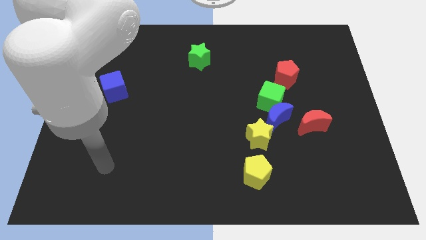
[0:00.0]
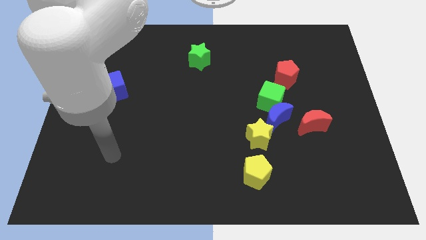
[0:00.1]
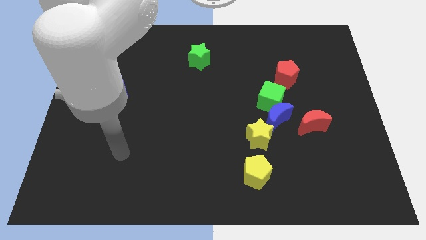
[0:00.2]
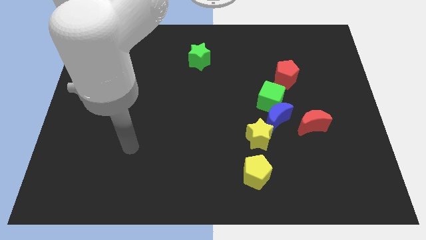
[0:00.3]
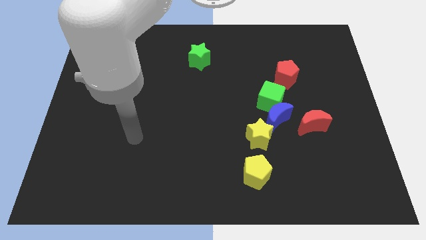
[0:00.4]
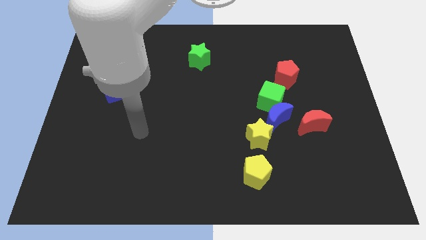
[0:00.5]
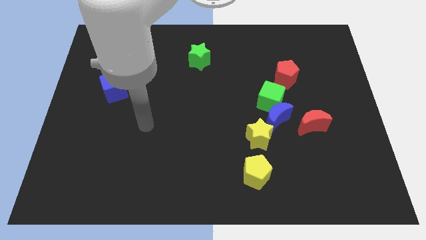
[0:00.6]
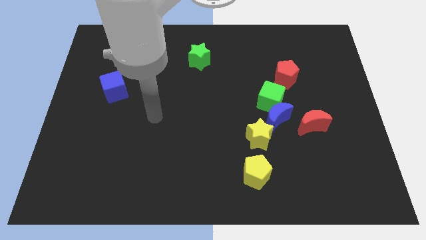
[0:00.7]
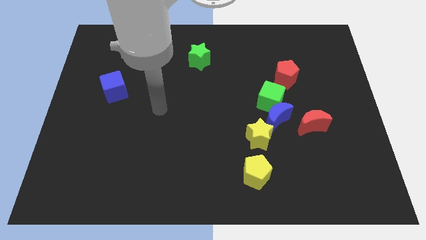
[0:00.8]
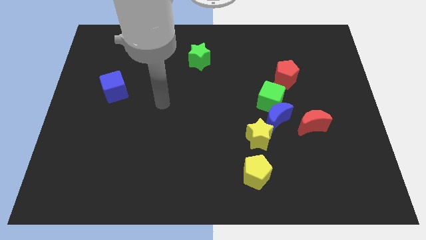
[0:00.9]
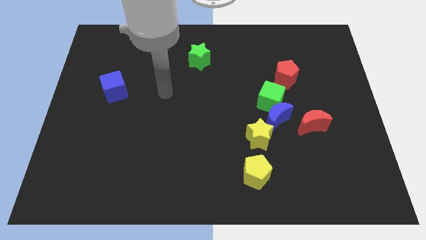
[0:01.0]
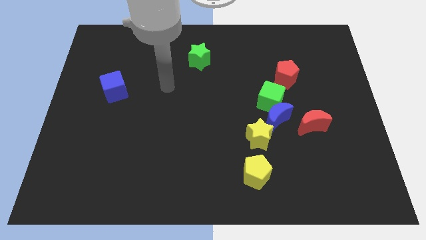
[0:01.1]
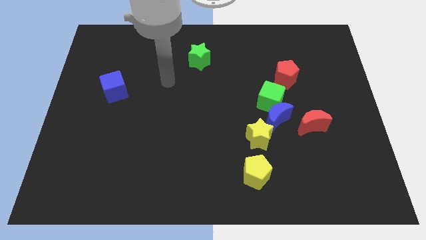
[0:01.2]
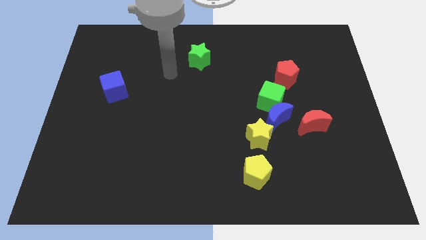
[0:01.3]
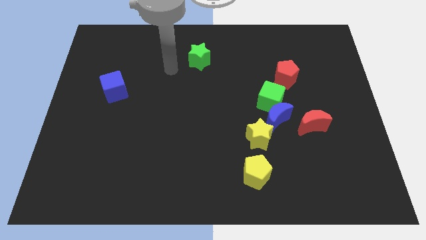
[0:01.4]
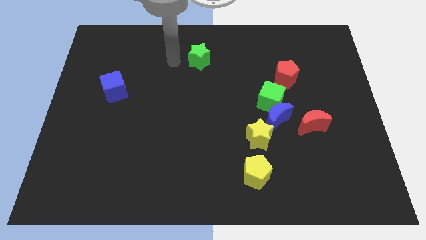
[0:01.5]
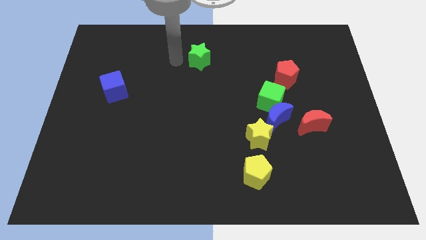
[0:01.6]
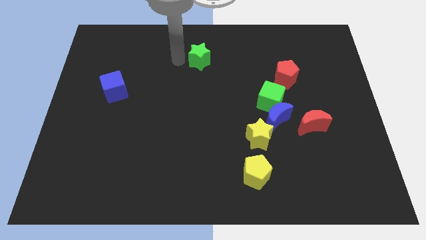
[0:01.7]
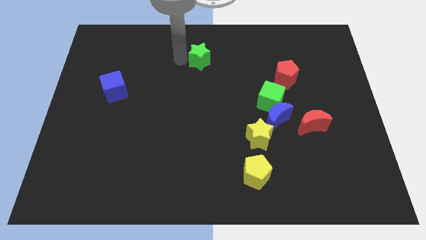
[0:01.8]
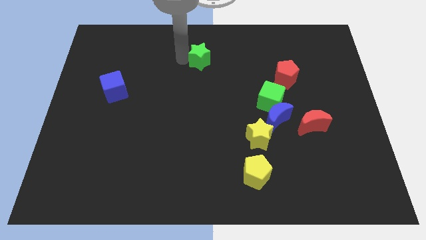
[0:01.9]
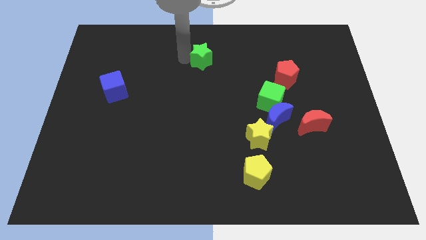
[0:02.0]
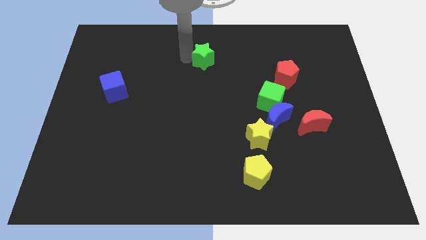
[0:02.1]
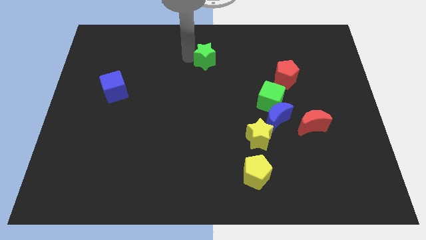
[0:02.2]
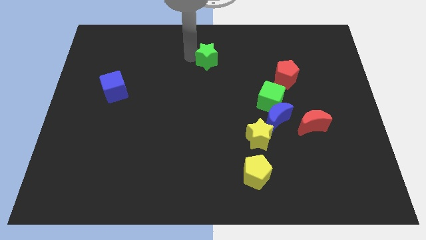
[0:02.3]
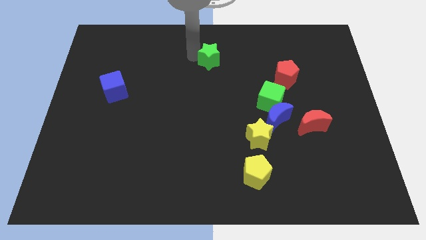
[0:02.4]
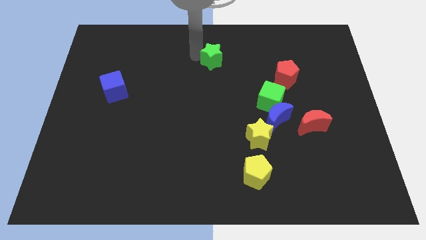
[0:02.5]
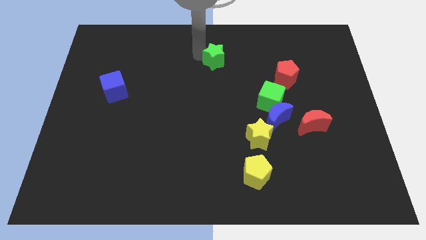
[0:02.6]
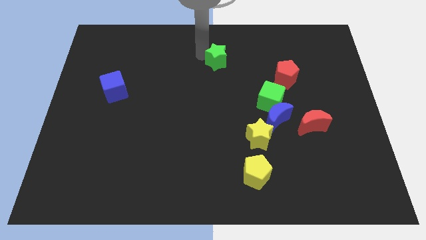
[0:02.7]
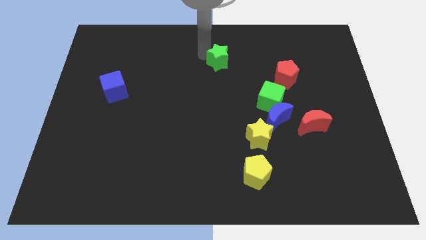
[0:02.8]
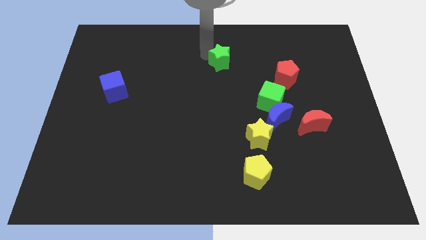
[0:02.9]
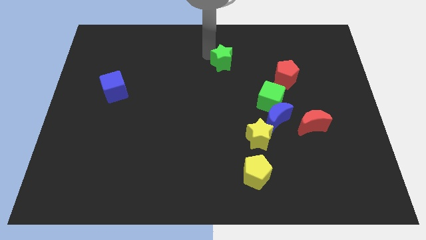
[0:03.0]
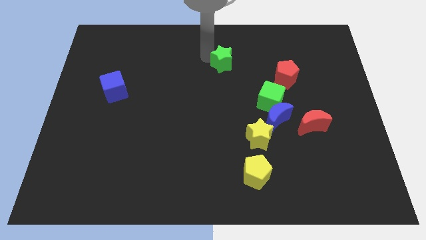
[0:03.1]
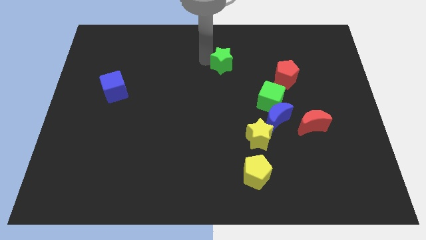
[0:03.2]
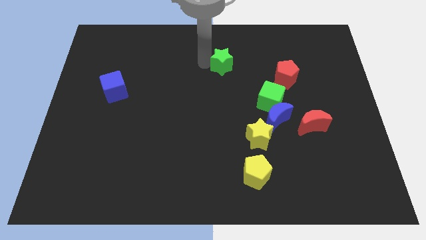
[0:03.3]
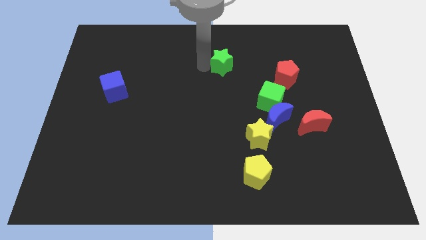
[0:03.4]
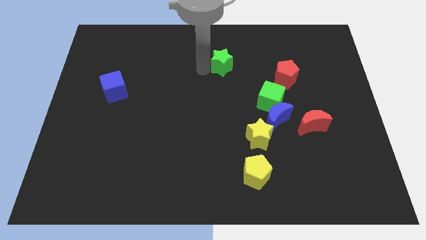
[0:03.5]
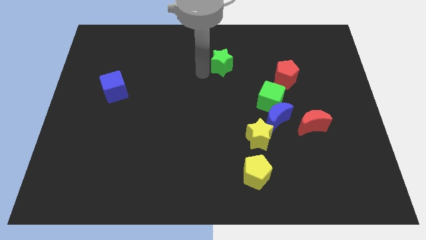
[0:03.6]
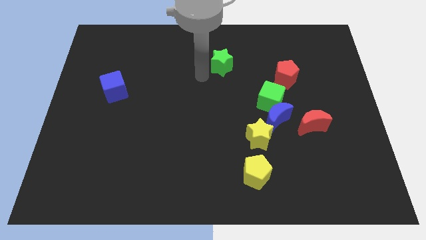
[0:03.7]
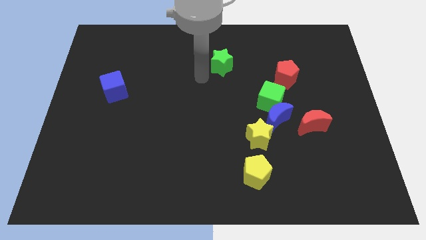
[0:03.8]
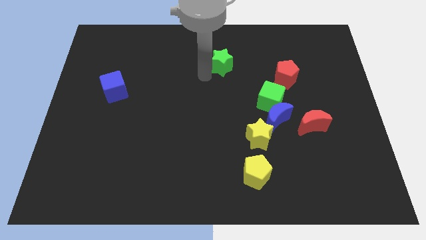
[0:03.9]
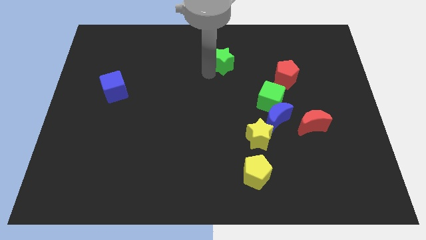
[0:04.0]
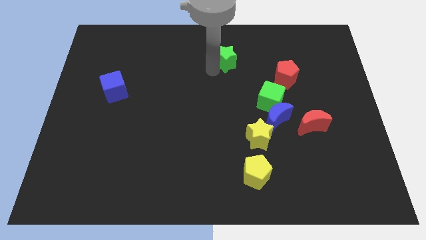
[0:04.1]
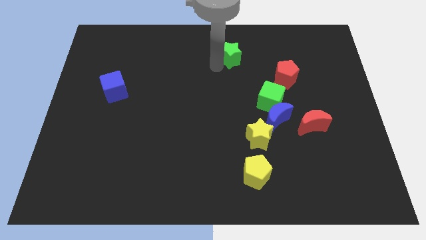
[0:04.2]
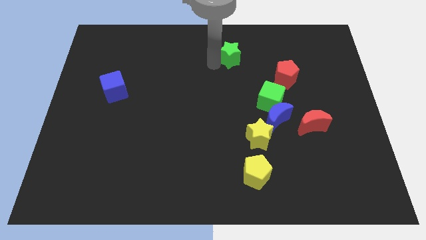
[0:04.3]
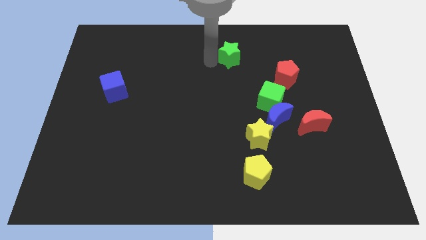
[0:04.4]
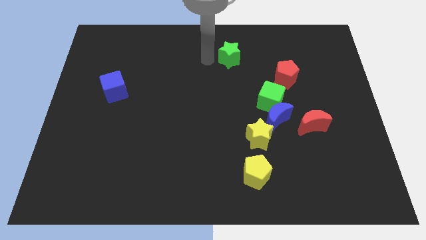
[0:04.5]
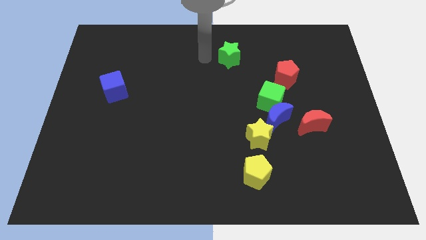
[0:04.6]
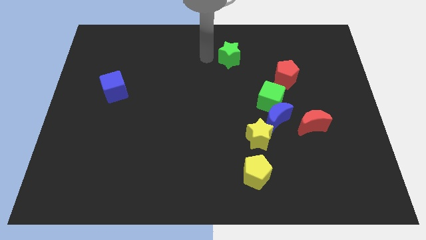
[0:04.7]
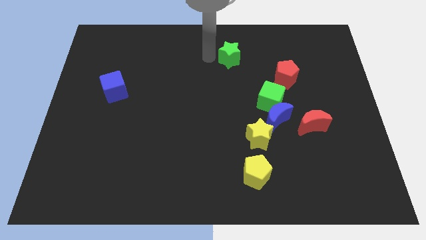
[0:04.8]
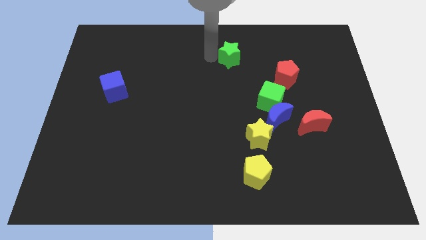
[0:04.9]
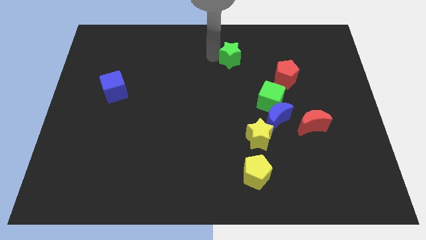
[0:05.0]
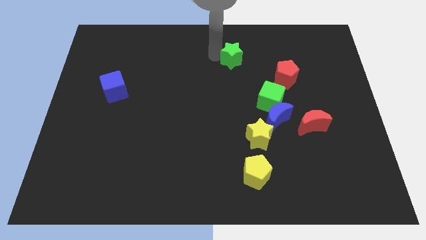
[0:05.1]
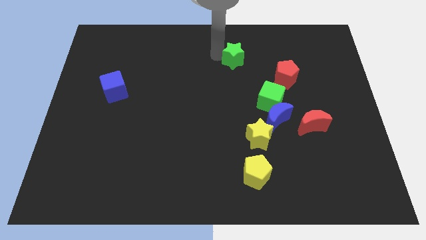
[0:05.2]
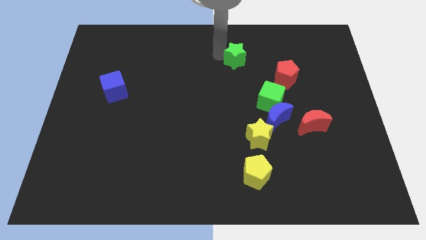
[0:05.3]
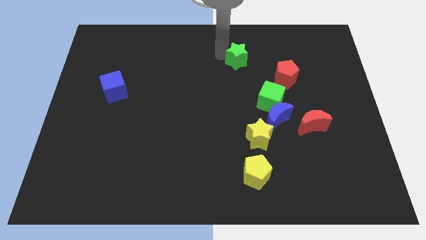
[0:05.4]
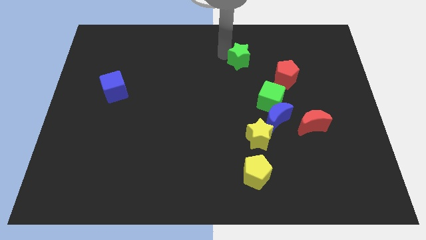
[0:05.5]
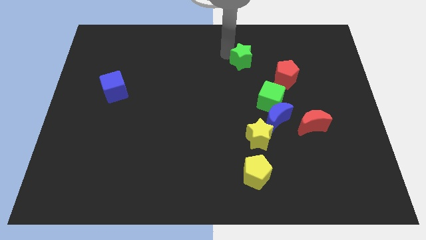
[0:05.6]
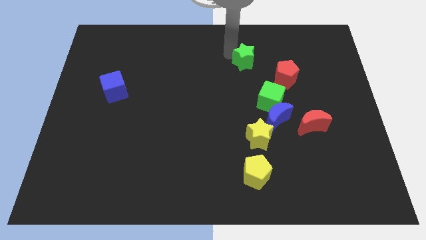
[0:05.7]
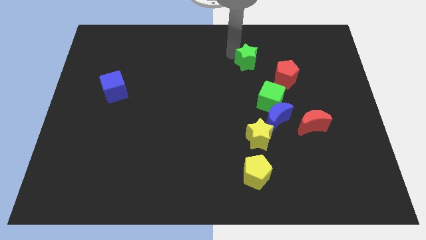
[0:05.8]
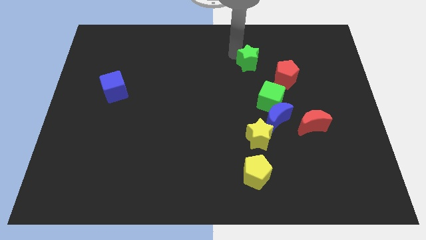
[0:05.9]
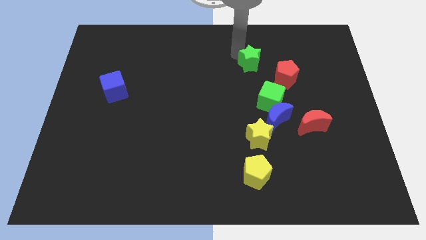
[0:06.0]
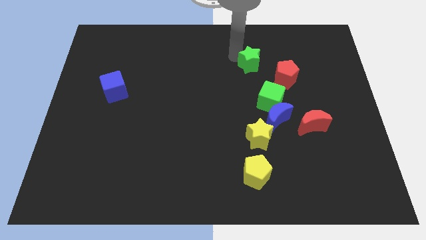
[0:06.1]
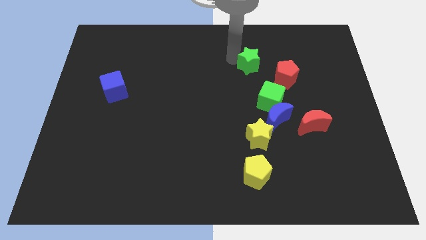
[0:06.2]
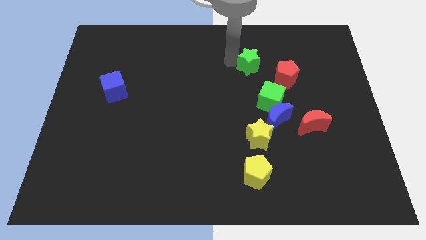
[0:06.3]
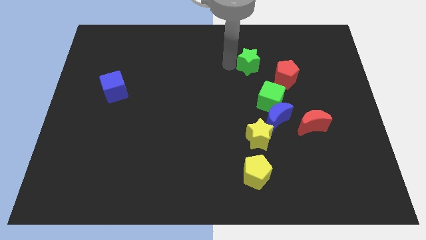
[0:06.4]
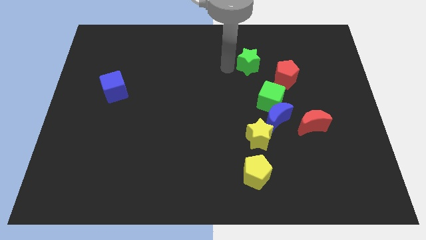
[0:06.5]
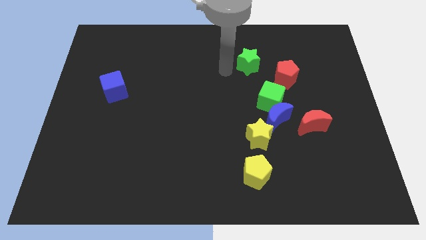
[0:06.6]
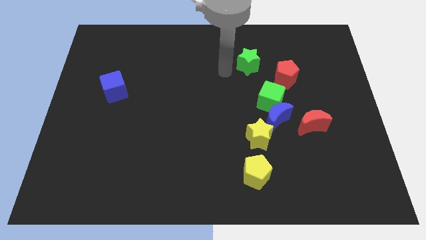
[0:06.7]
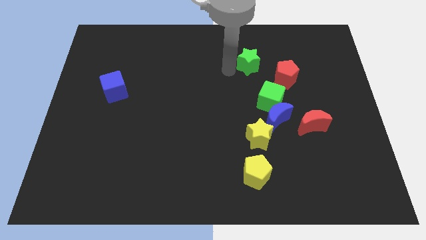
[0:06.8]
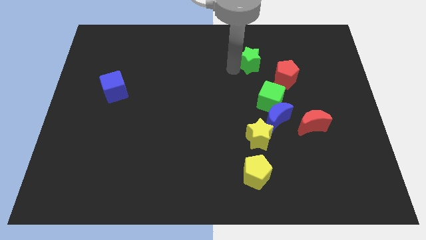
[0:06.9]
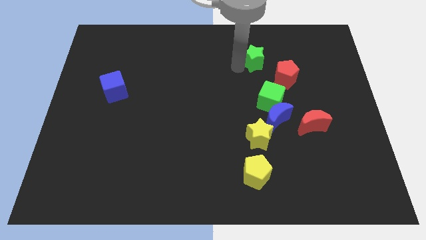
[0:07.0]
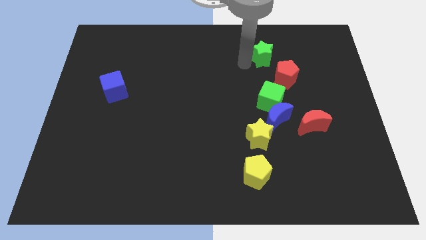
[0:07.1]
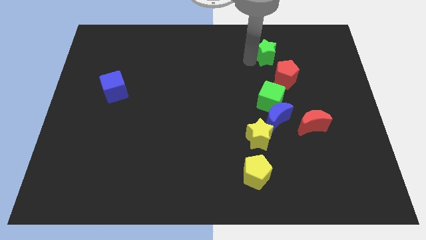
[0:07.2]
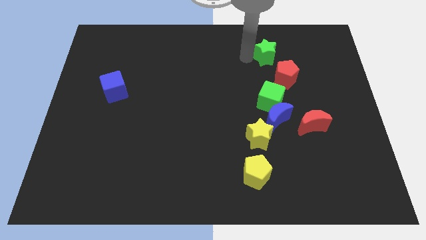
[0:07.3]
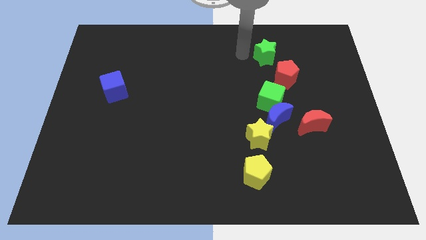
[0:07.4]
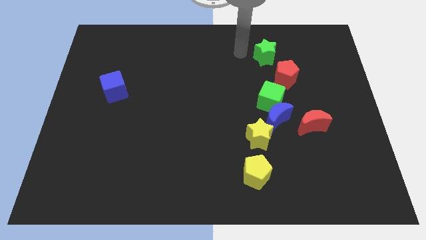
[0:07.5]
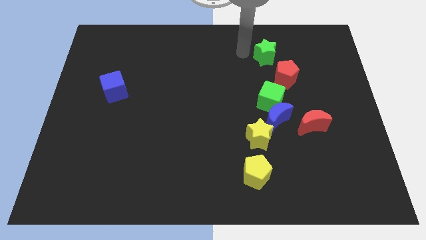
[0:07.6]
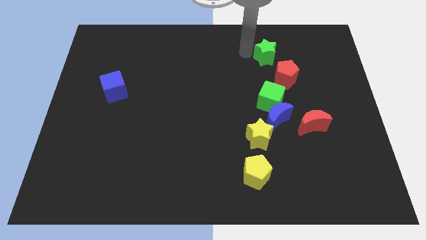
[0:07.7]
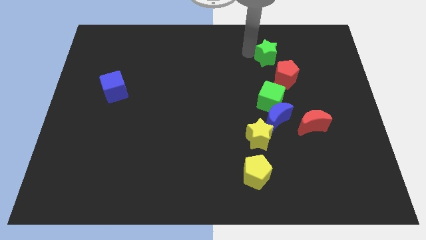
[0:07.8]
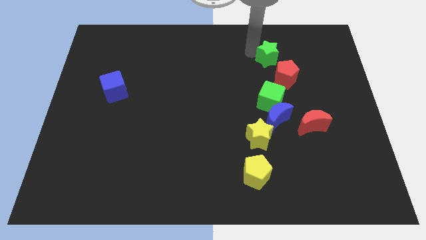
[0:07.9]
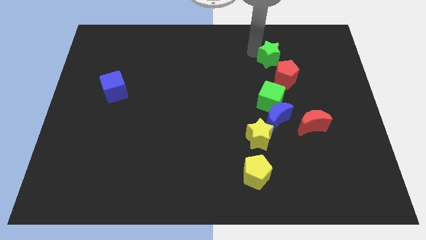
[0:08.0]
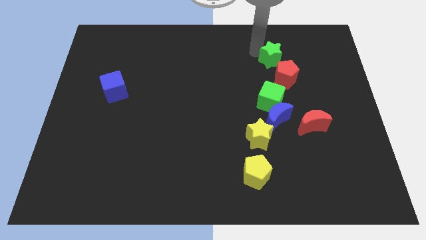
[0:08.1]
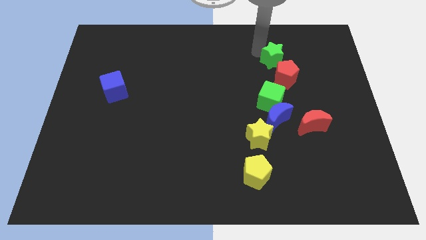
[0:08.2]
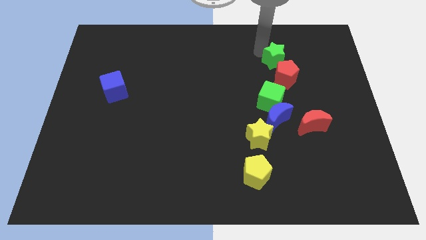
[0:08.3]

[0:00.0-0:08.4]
push the green star to the right
